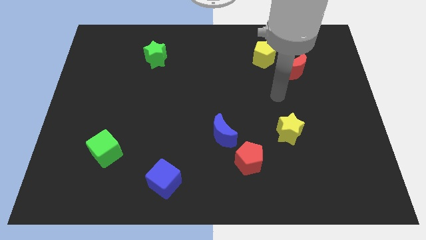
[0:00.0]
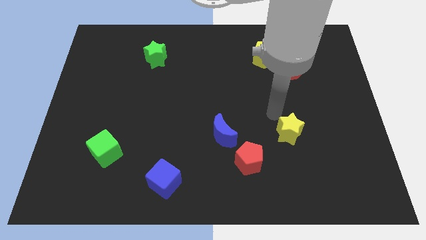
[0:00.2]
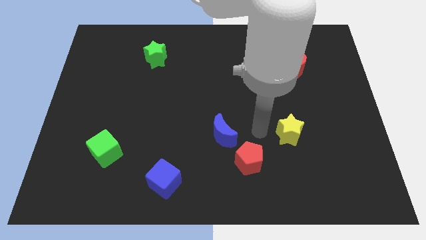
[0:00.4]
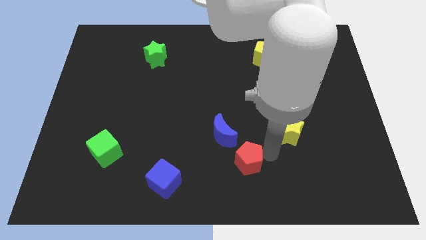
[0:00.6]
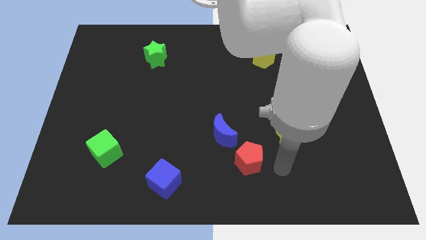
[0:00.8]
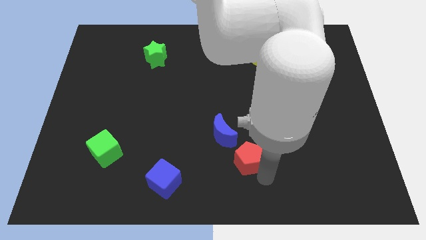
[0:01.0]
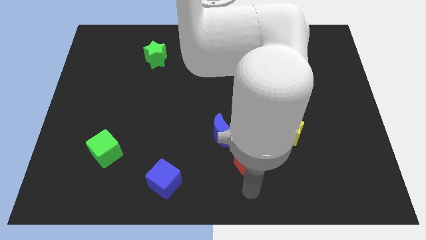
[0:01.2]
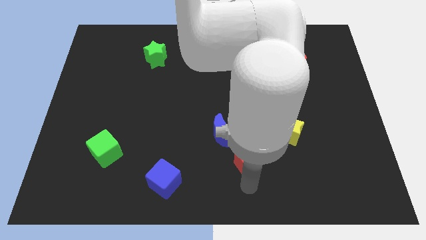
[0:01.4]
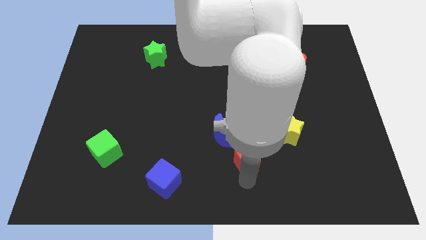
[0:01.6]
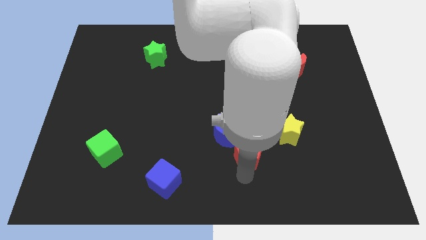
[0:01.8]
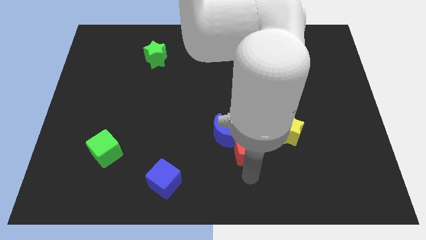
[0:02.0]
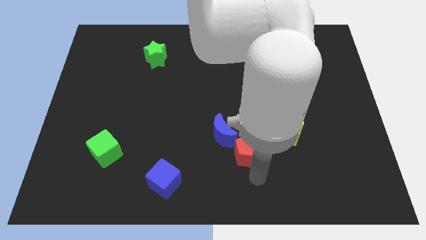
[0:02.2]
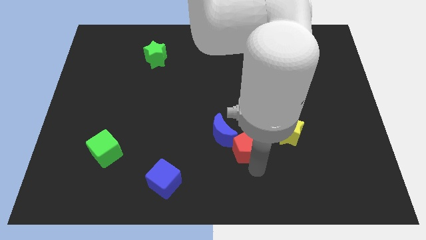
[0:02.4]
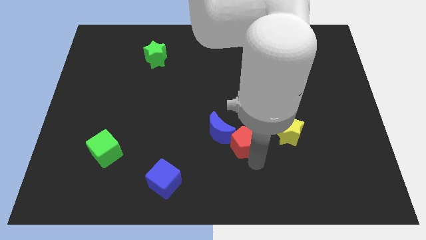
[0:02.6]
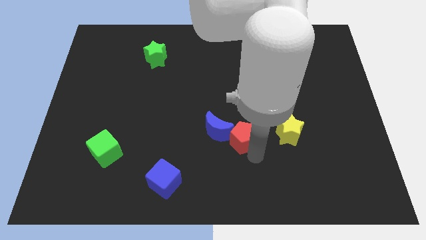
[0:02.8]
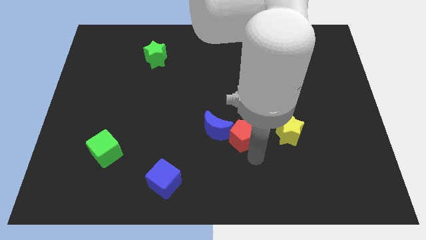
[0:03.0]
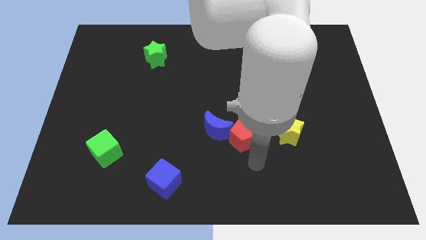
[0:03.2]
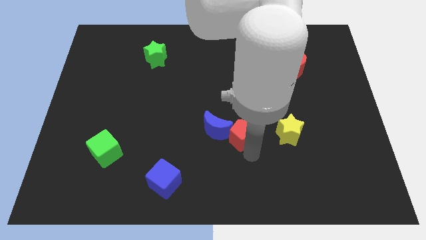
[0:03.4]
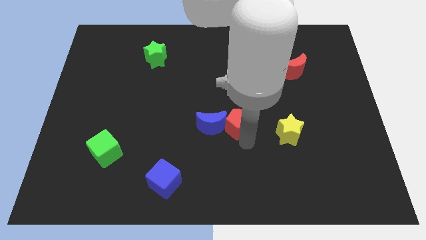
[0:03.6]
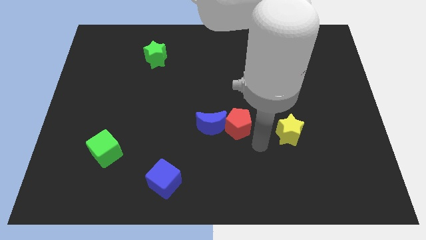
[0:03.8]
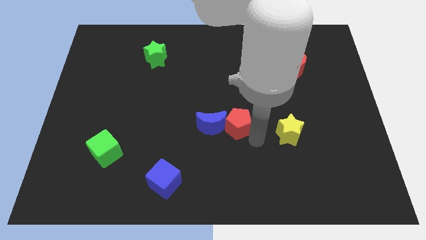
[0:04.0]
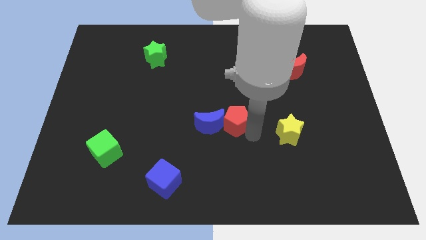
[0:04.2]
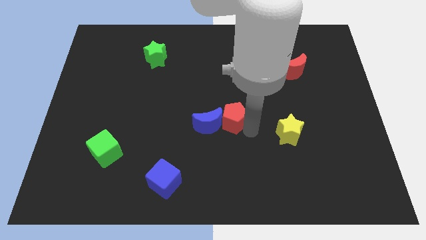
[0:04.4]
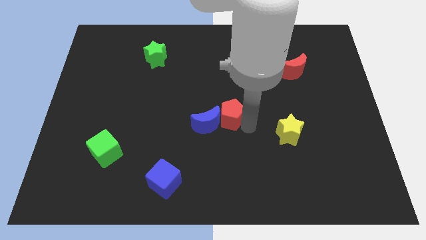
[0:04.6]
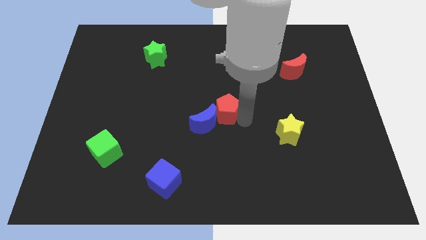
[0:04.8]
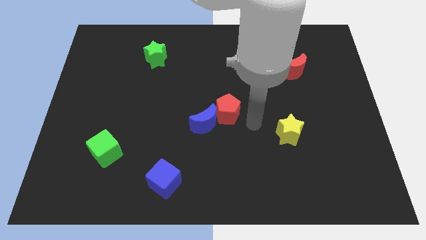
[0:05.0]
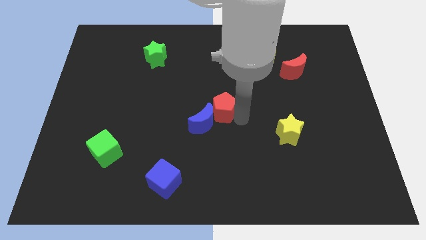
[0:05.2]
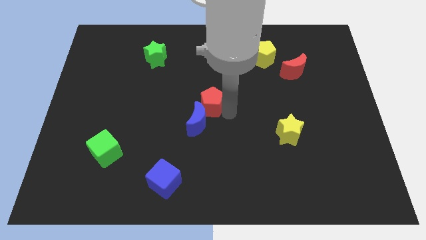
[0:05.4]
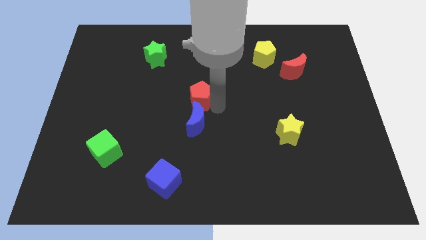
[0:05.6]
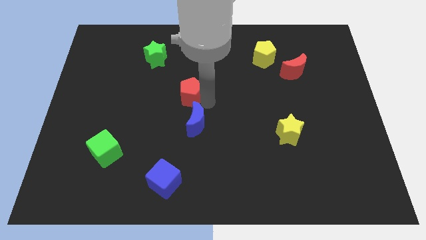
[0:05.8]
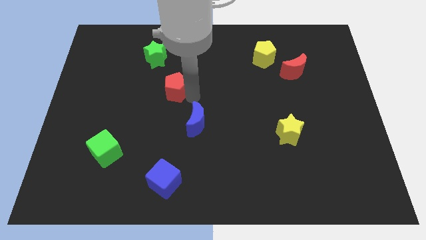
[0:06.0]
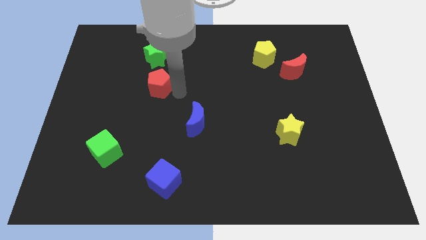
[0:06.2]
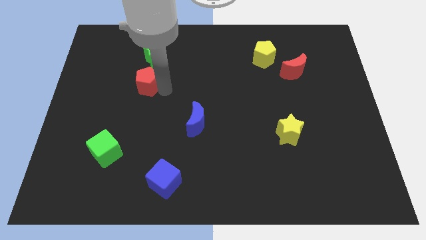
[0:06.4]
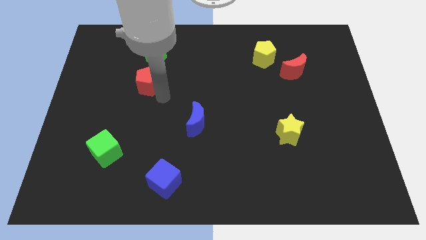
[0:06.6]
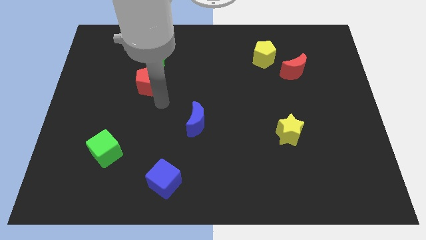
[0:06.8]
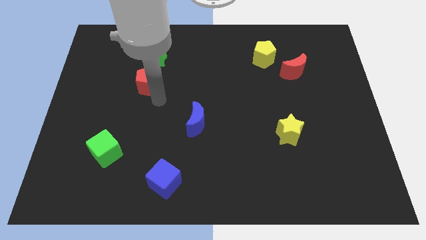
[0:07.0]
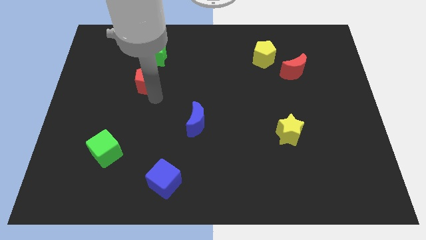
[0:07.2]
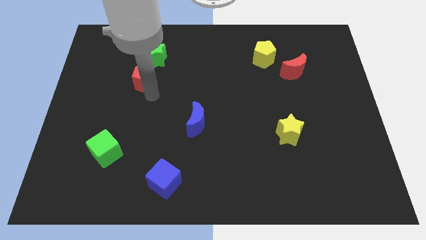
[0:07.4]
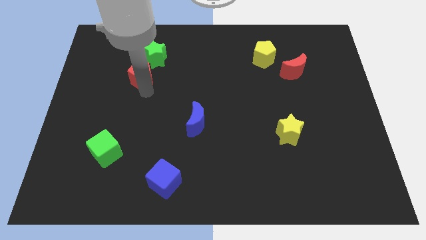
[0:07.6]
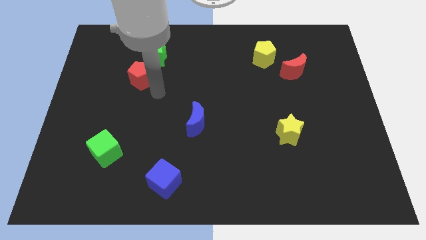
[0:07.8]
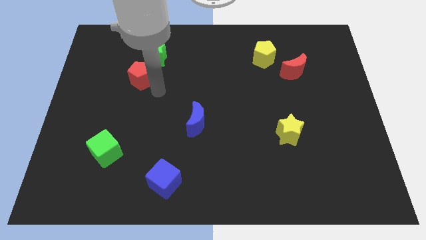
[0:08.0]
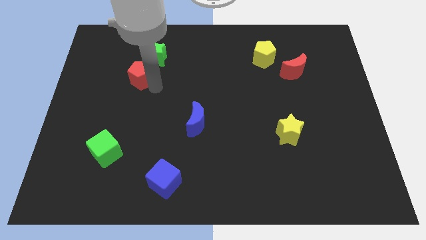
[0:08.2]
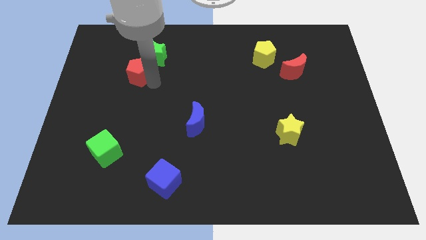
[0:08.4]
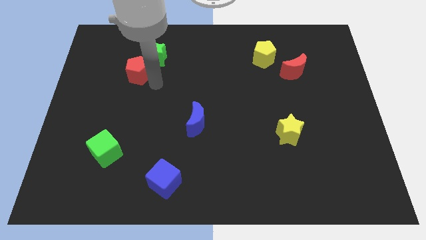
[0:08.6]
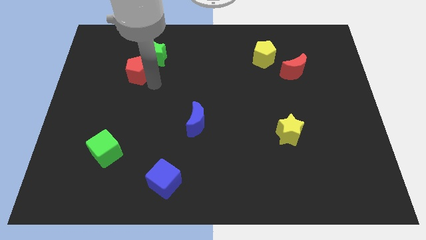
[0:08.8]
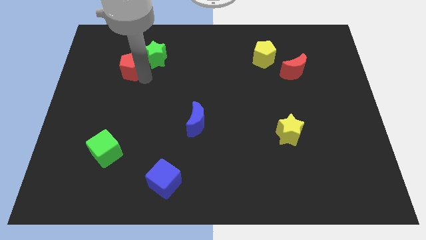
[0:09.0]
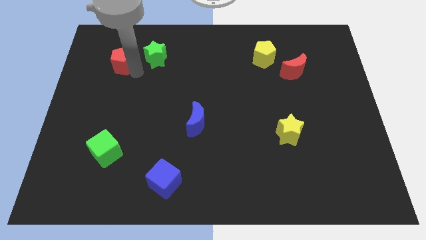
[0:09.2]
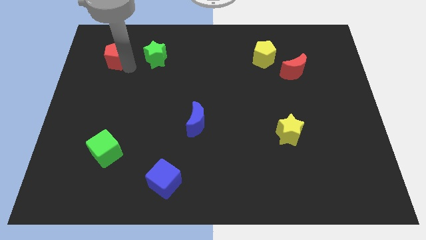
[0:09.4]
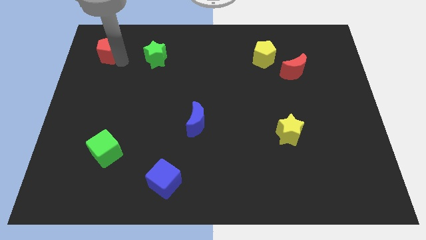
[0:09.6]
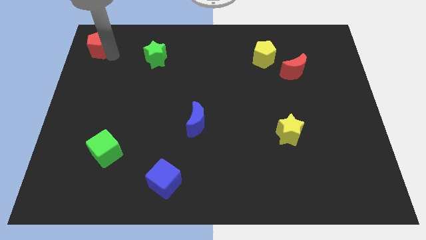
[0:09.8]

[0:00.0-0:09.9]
put the red pentagon to the top left corner

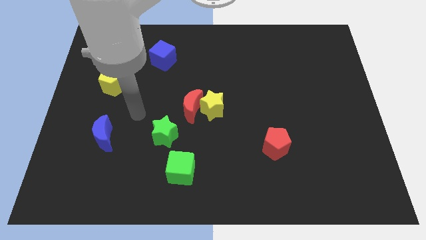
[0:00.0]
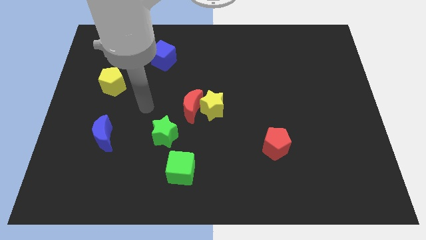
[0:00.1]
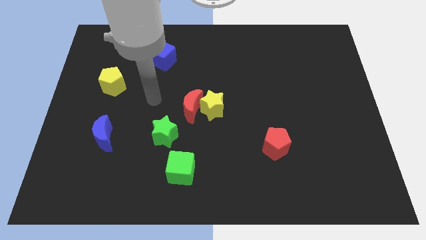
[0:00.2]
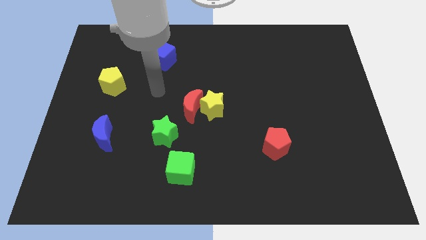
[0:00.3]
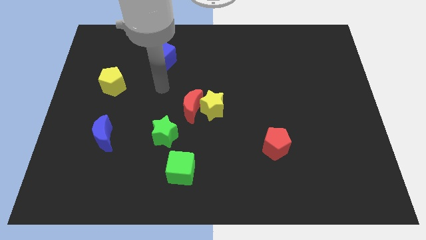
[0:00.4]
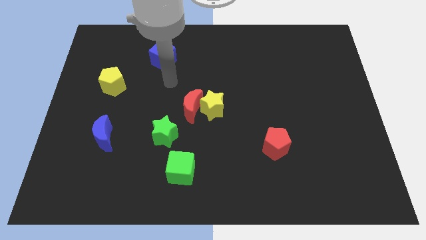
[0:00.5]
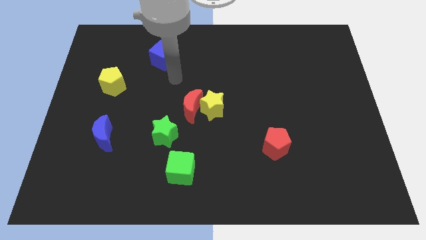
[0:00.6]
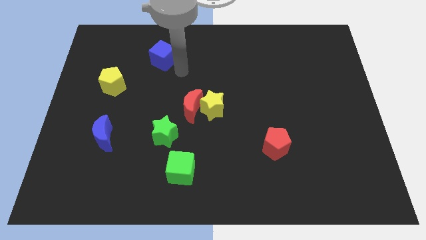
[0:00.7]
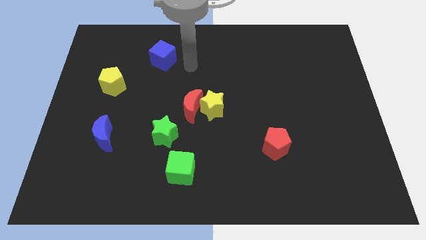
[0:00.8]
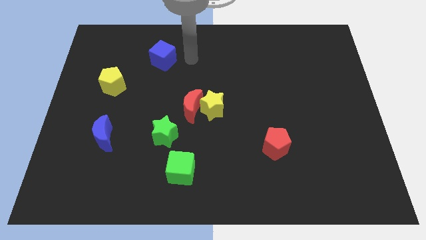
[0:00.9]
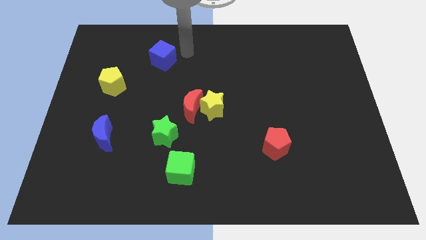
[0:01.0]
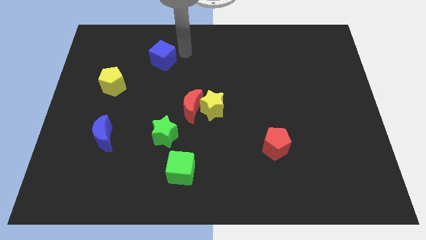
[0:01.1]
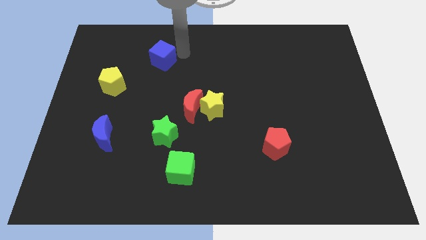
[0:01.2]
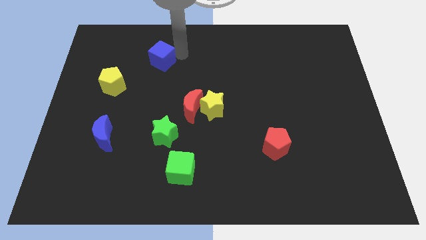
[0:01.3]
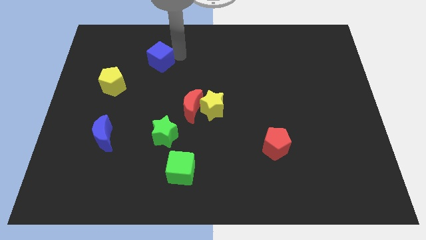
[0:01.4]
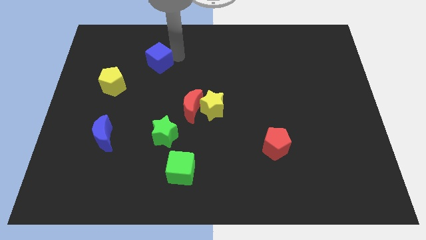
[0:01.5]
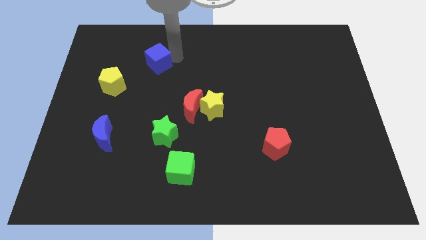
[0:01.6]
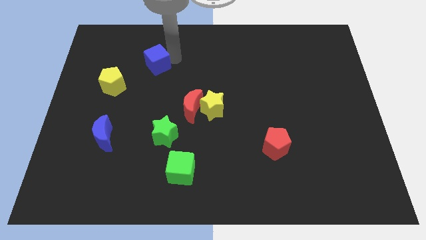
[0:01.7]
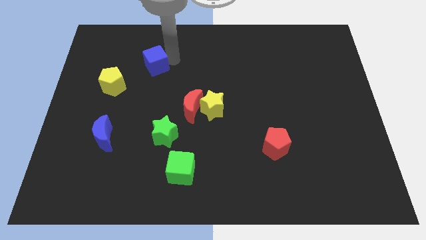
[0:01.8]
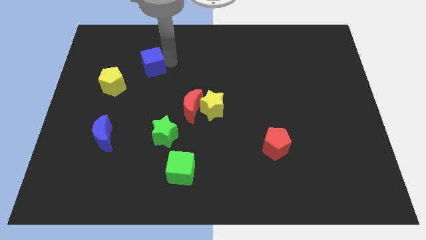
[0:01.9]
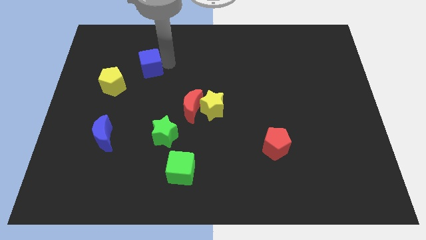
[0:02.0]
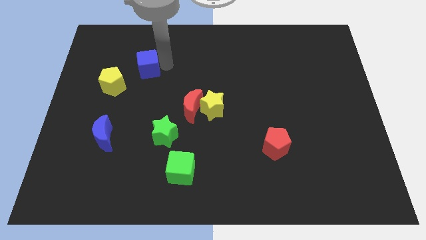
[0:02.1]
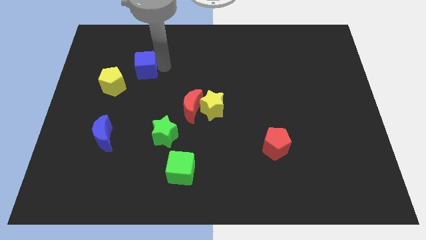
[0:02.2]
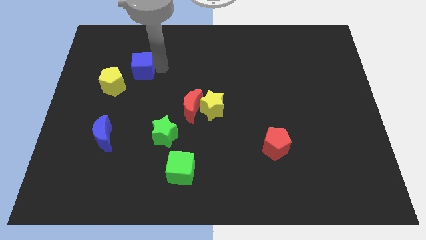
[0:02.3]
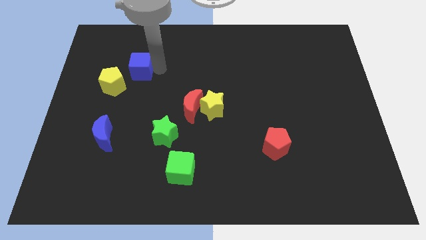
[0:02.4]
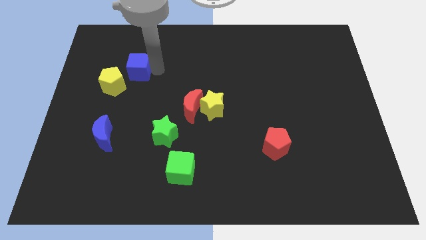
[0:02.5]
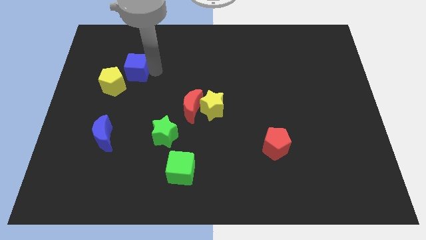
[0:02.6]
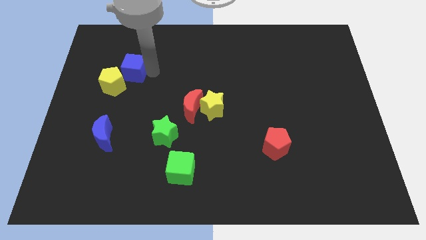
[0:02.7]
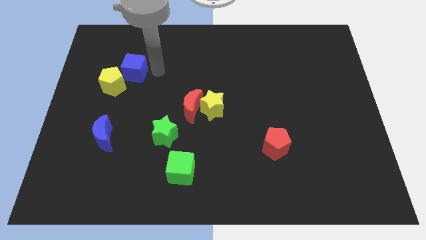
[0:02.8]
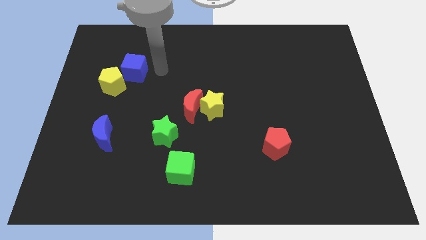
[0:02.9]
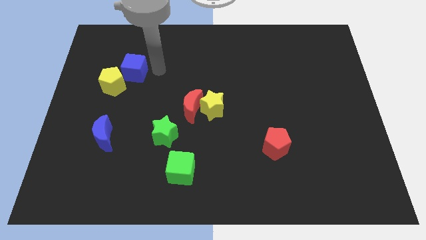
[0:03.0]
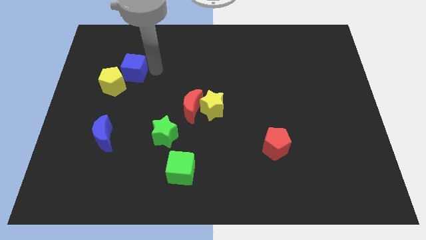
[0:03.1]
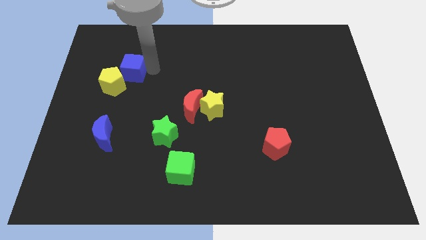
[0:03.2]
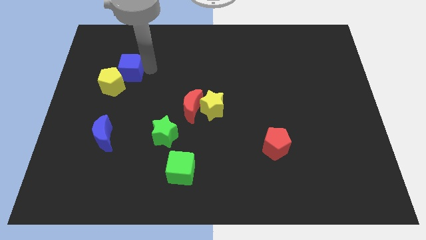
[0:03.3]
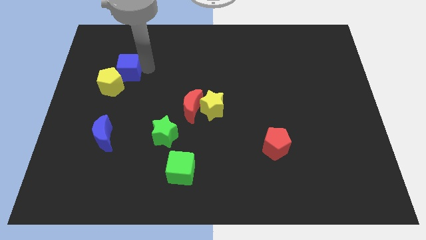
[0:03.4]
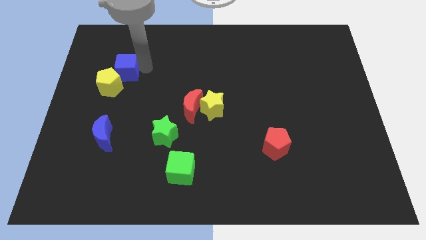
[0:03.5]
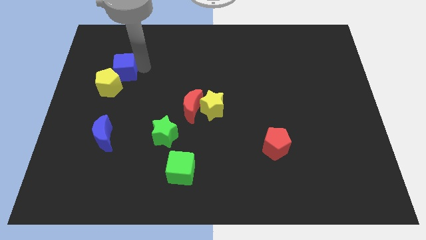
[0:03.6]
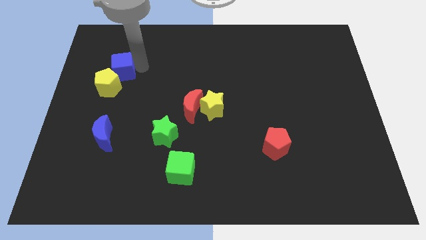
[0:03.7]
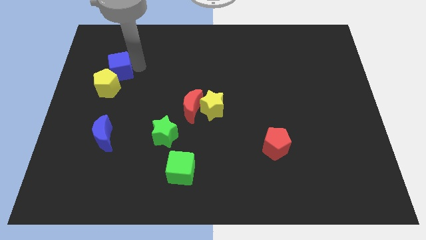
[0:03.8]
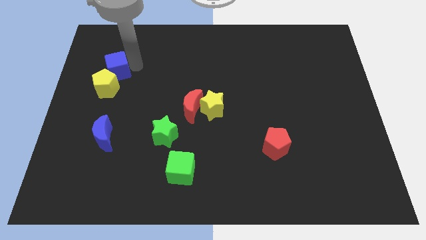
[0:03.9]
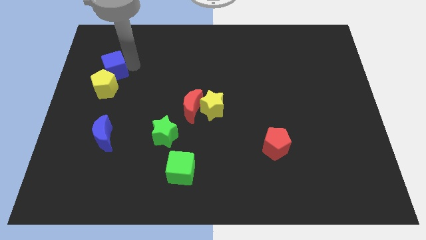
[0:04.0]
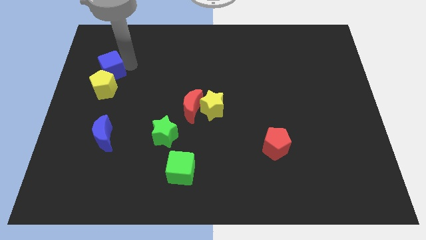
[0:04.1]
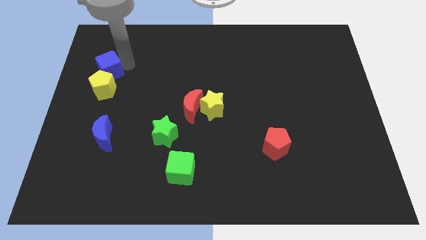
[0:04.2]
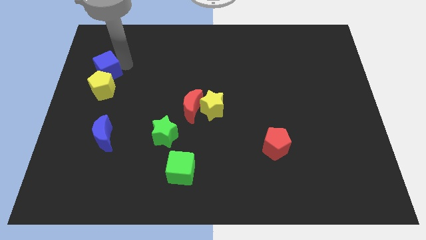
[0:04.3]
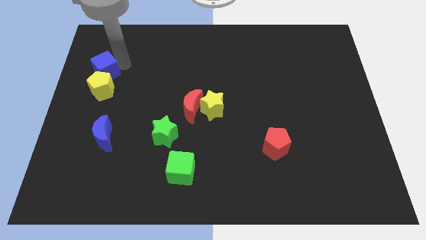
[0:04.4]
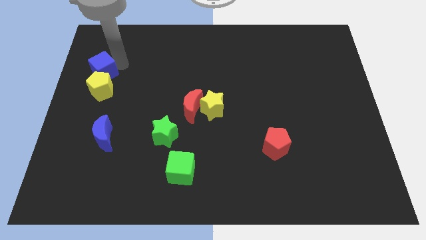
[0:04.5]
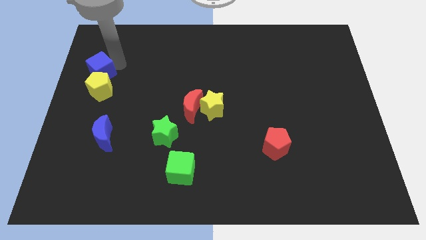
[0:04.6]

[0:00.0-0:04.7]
put the blue cube to the center left
